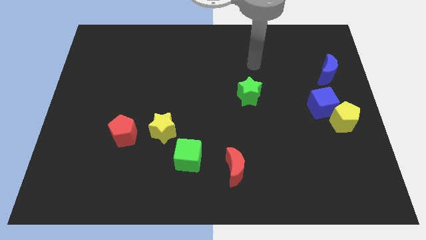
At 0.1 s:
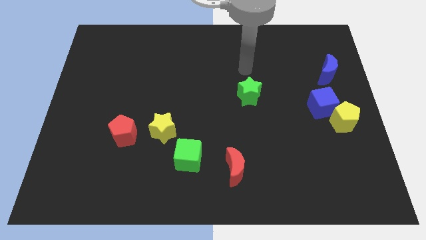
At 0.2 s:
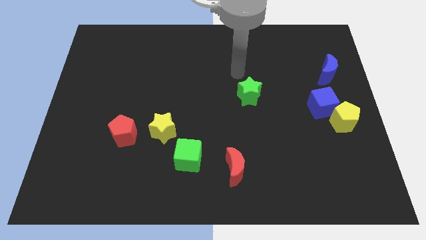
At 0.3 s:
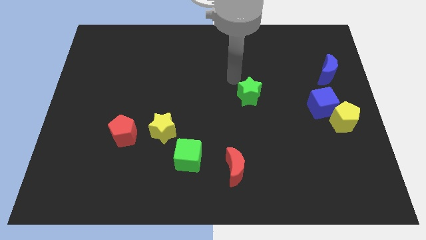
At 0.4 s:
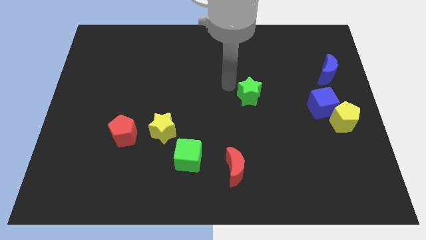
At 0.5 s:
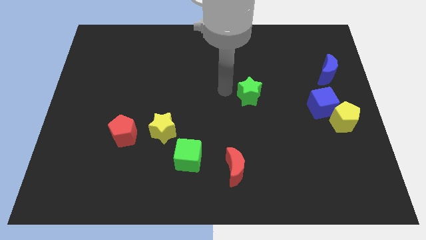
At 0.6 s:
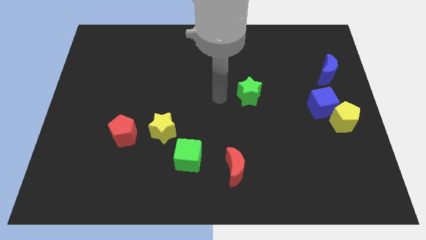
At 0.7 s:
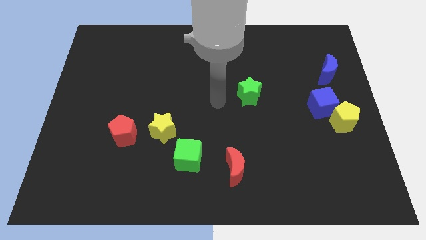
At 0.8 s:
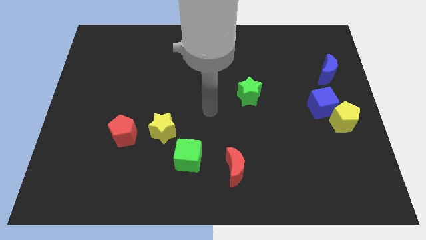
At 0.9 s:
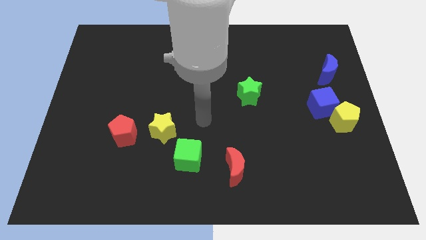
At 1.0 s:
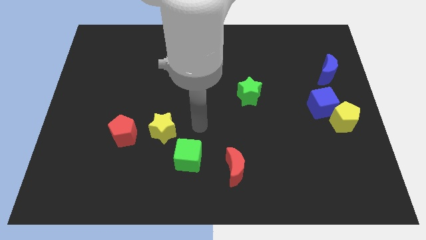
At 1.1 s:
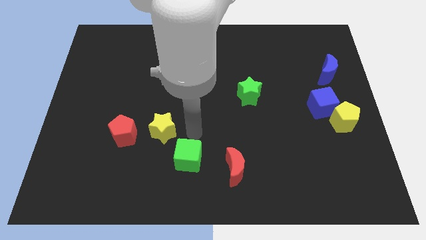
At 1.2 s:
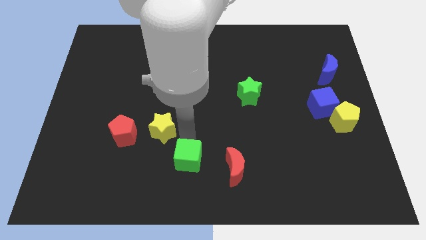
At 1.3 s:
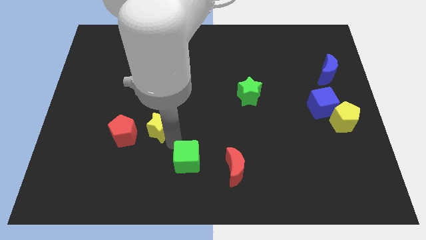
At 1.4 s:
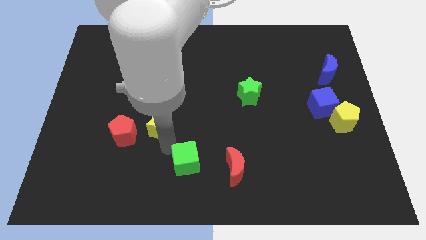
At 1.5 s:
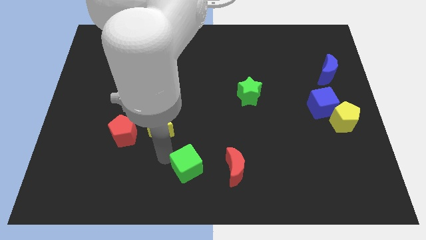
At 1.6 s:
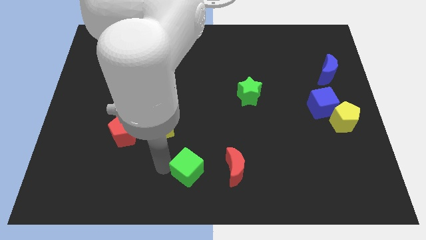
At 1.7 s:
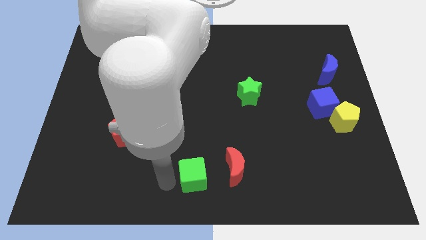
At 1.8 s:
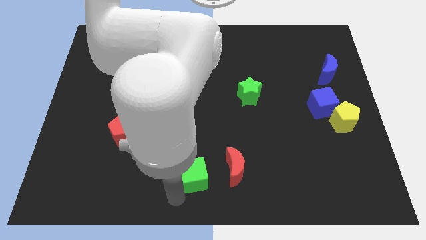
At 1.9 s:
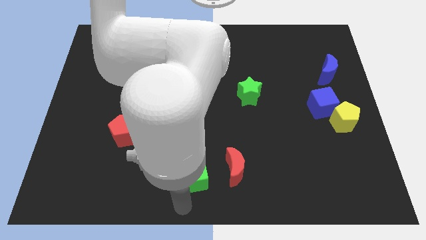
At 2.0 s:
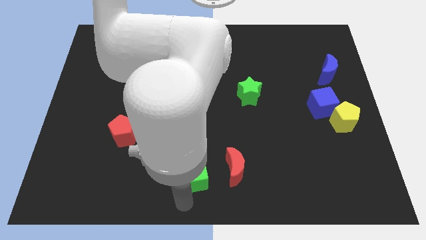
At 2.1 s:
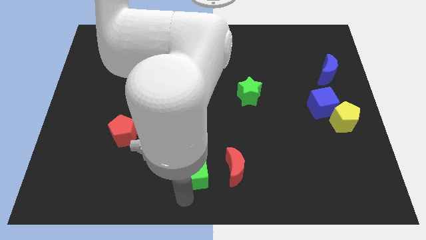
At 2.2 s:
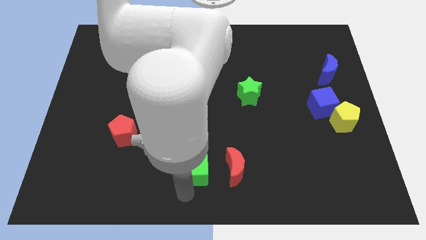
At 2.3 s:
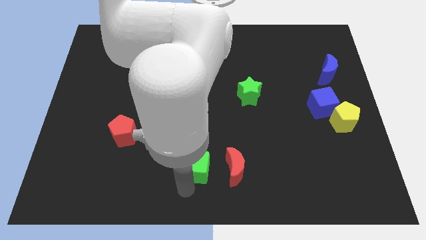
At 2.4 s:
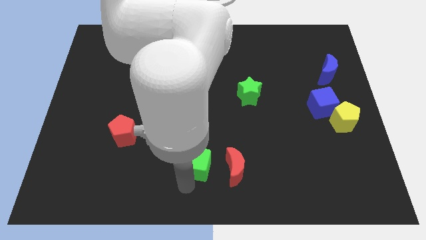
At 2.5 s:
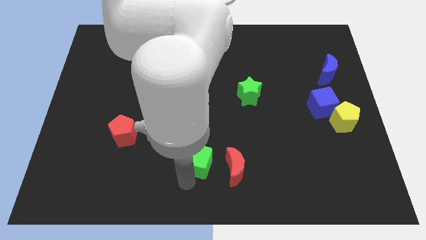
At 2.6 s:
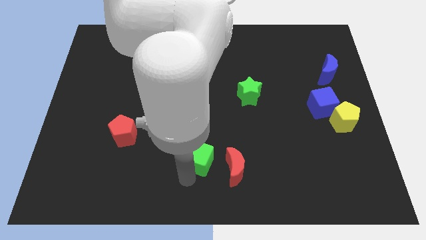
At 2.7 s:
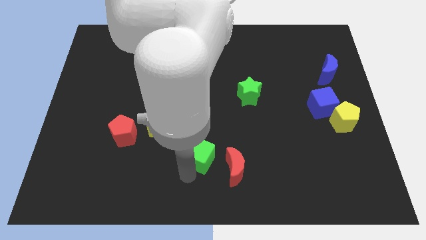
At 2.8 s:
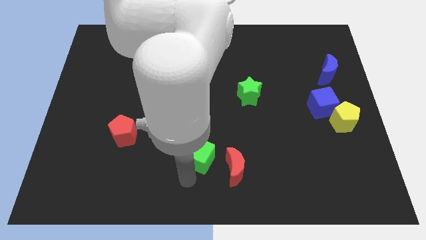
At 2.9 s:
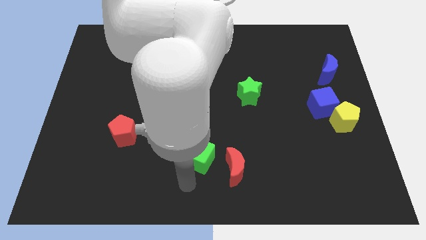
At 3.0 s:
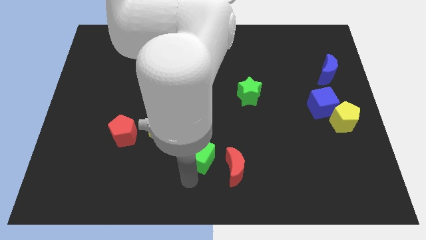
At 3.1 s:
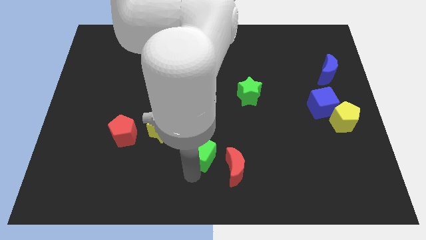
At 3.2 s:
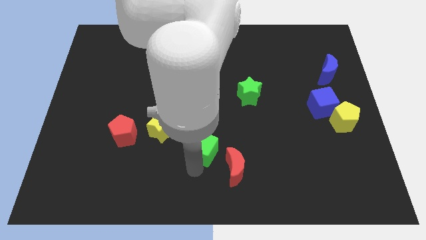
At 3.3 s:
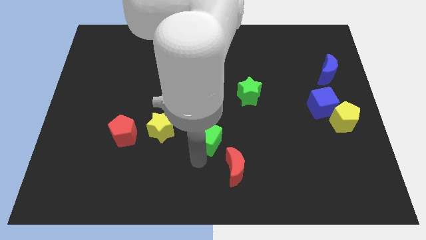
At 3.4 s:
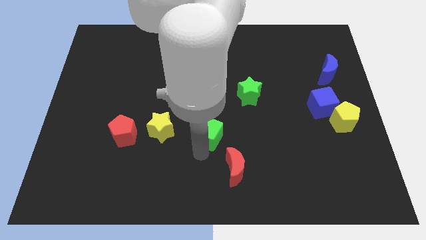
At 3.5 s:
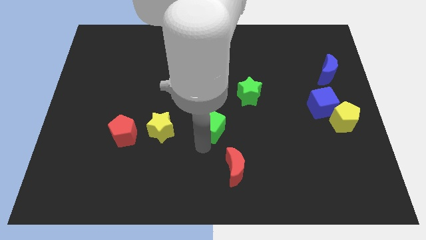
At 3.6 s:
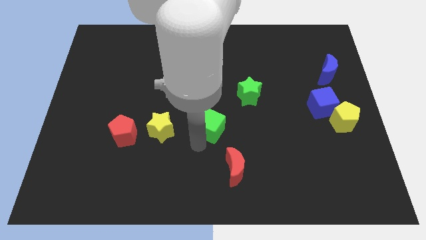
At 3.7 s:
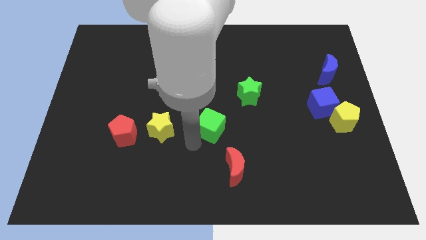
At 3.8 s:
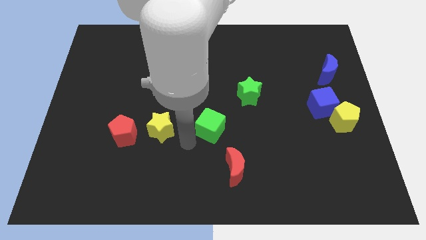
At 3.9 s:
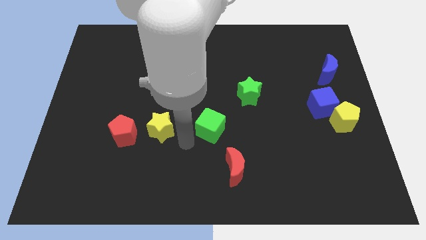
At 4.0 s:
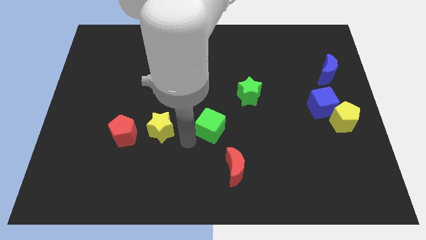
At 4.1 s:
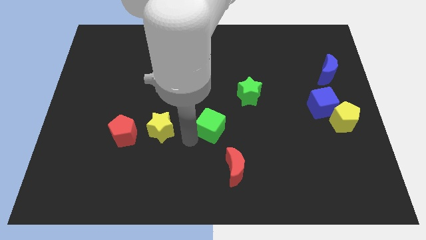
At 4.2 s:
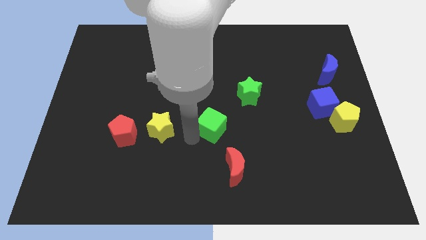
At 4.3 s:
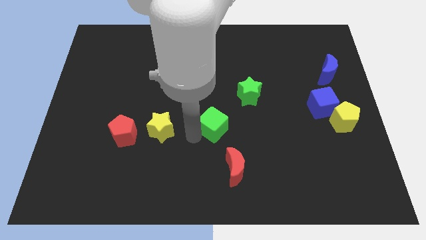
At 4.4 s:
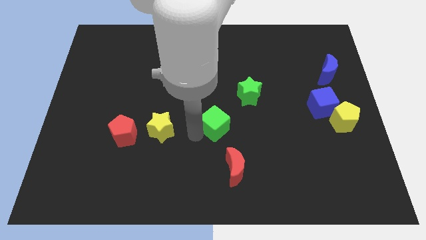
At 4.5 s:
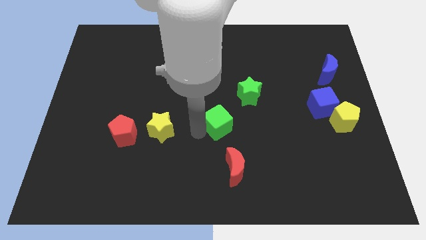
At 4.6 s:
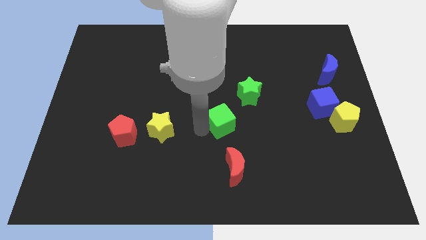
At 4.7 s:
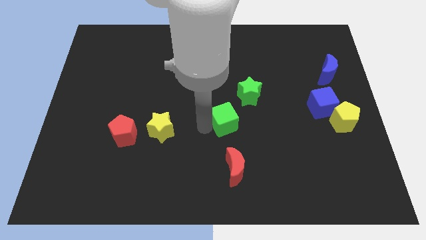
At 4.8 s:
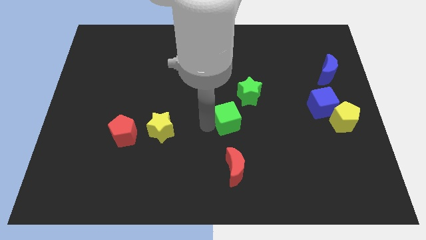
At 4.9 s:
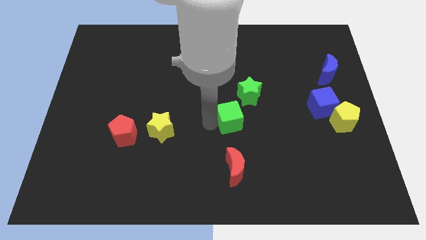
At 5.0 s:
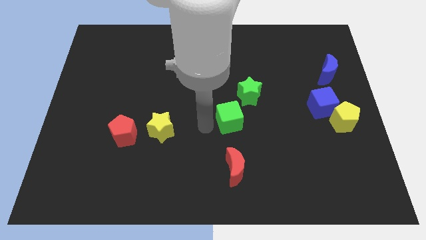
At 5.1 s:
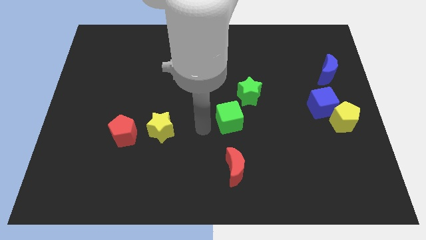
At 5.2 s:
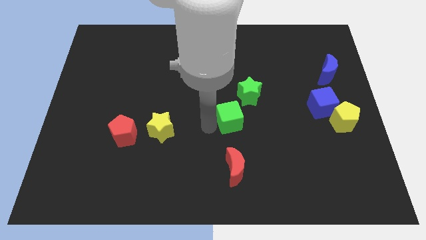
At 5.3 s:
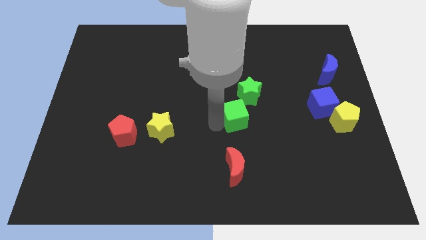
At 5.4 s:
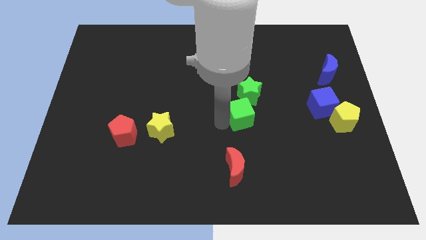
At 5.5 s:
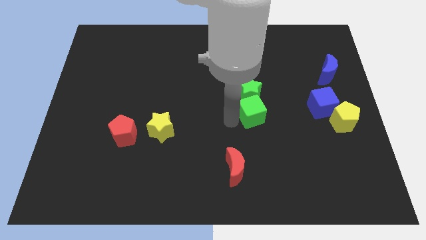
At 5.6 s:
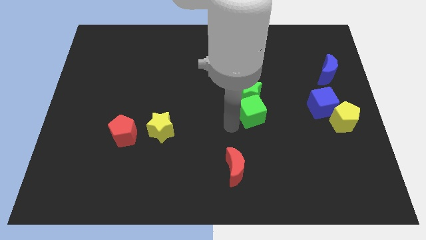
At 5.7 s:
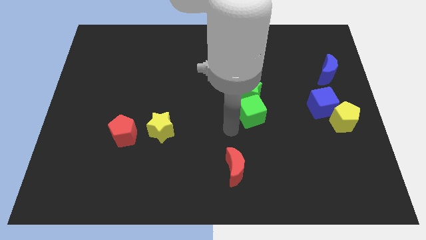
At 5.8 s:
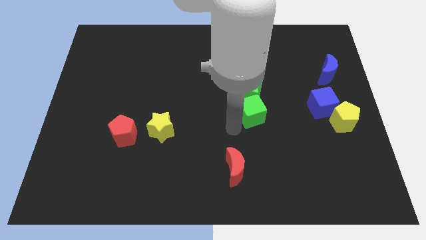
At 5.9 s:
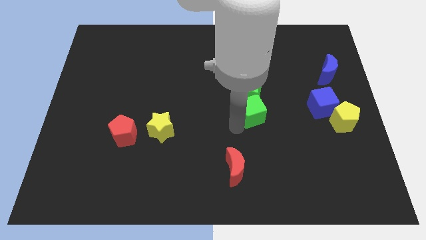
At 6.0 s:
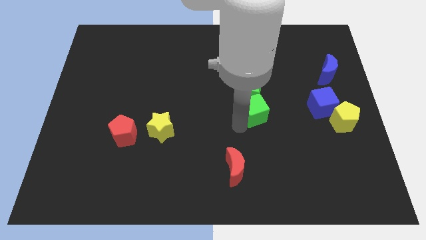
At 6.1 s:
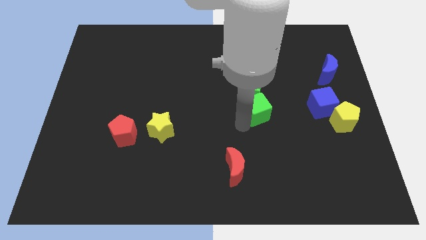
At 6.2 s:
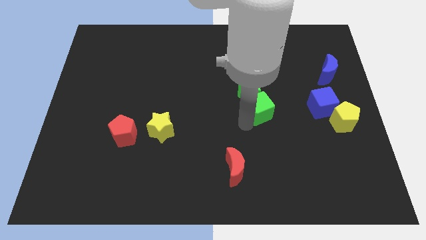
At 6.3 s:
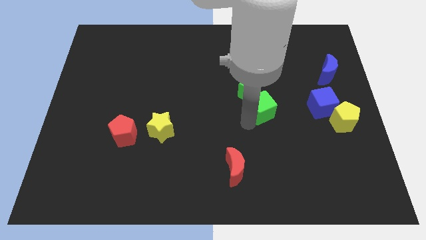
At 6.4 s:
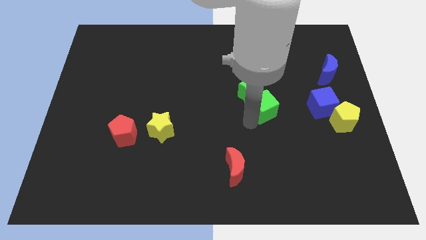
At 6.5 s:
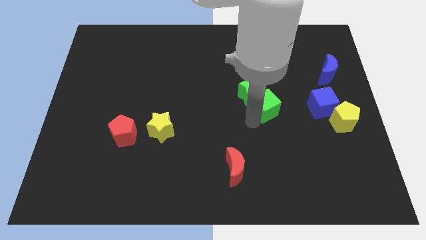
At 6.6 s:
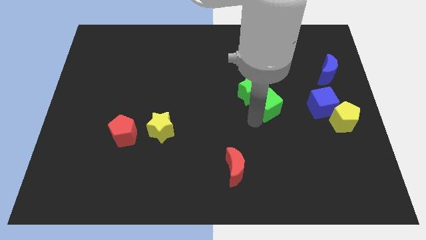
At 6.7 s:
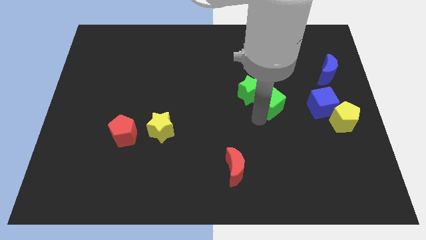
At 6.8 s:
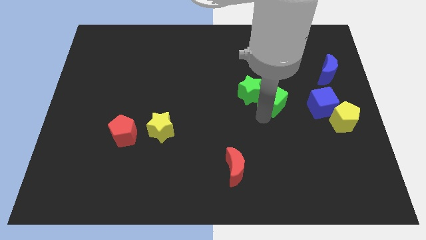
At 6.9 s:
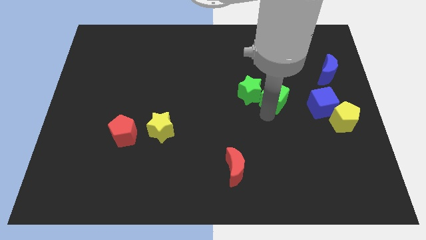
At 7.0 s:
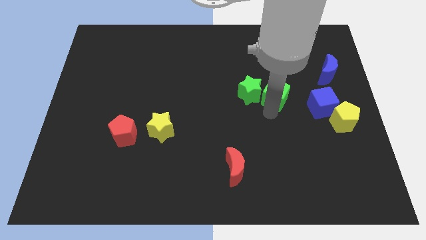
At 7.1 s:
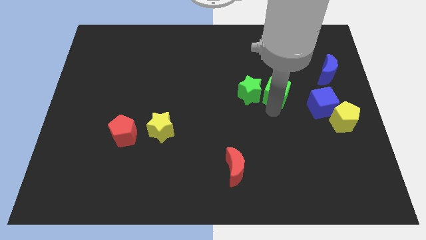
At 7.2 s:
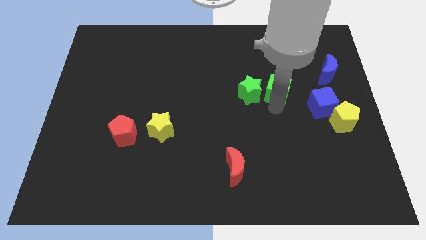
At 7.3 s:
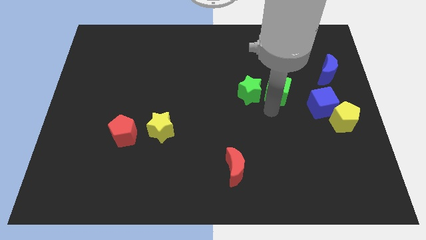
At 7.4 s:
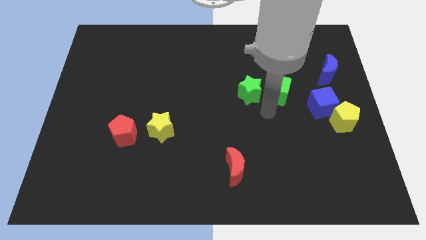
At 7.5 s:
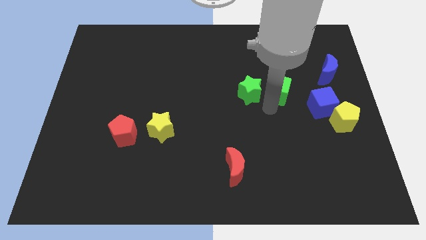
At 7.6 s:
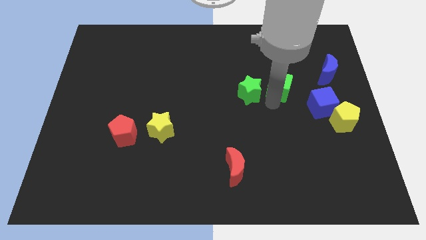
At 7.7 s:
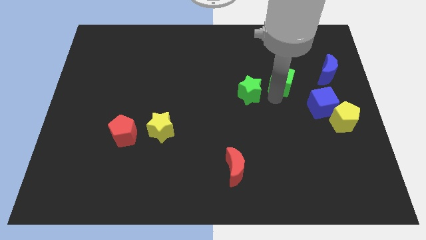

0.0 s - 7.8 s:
push the green cube just left of the blue moon
